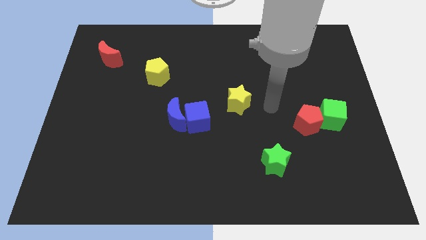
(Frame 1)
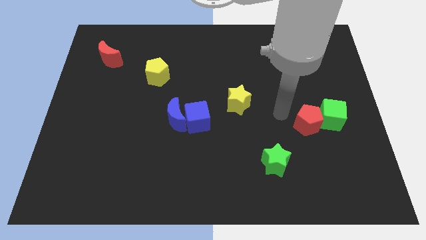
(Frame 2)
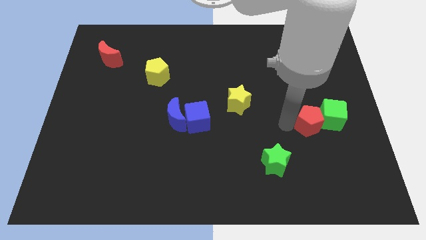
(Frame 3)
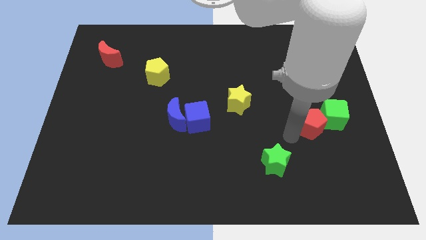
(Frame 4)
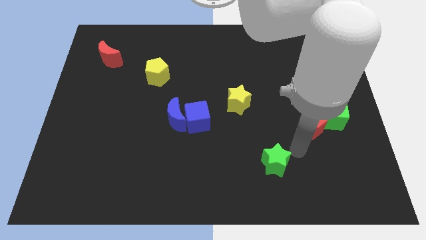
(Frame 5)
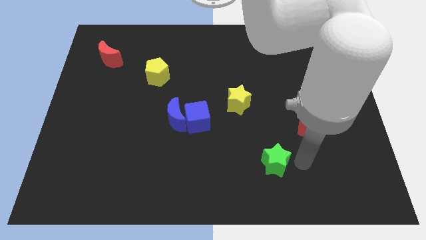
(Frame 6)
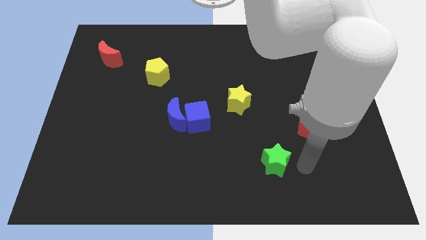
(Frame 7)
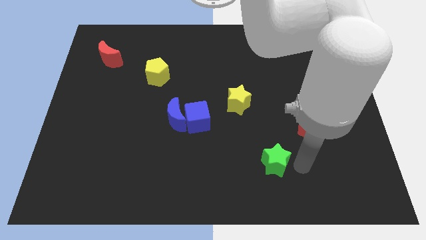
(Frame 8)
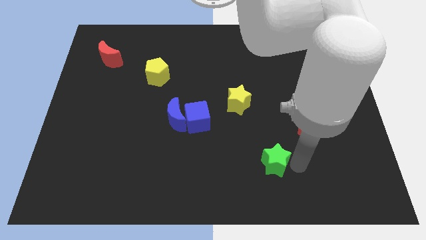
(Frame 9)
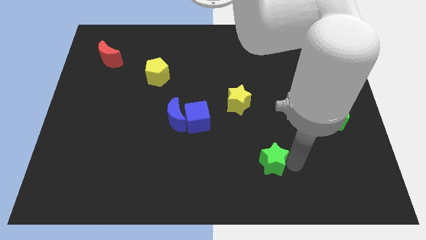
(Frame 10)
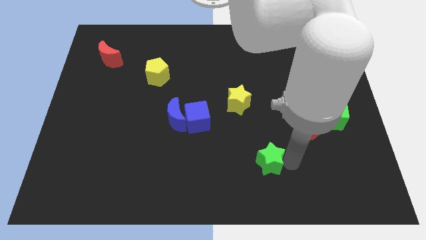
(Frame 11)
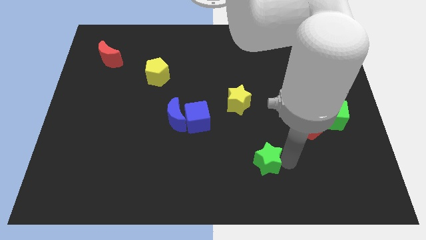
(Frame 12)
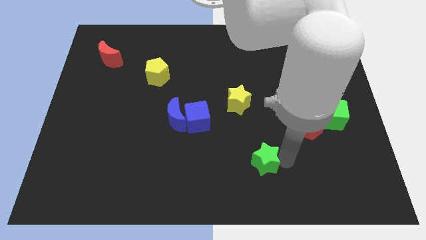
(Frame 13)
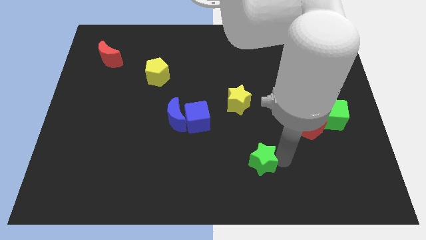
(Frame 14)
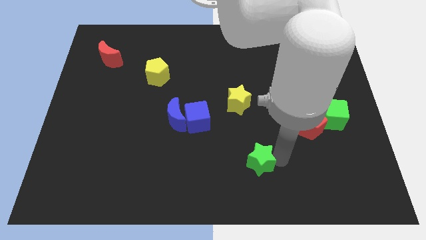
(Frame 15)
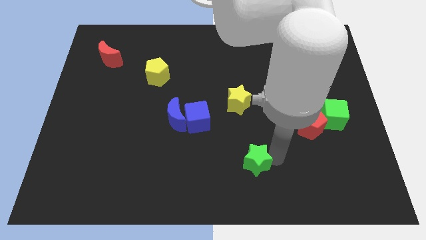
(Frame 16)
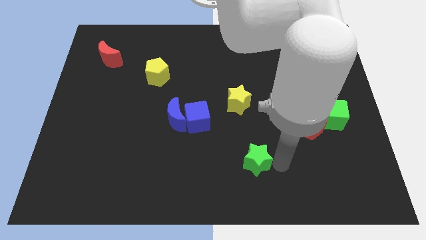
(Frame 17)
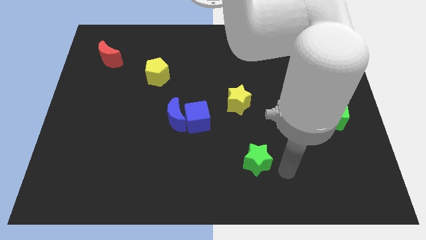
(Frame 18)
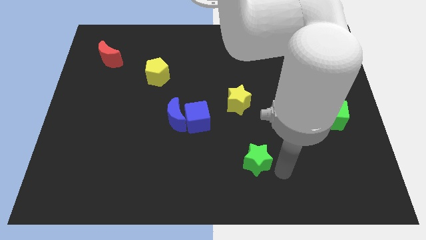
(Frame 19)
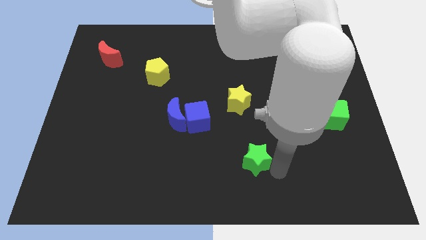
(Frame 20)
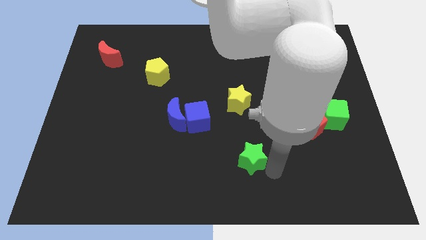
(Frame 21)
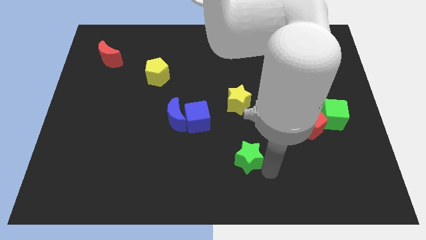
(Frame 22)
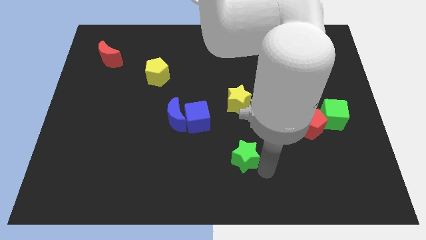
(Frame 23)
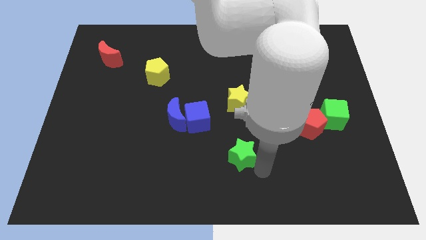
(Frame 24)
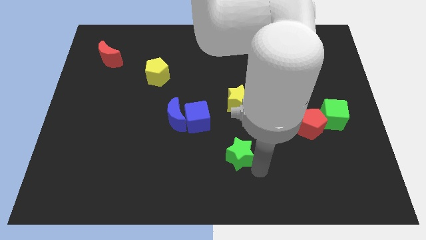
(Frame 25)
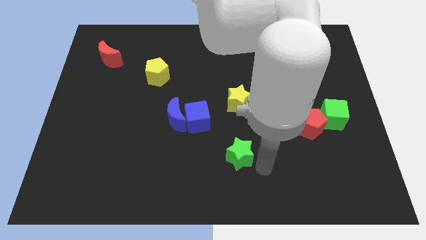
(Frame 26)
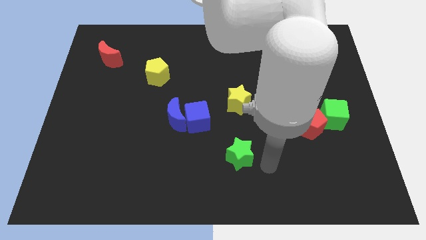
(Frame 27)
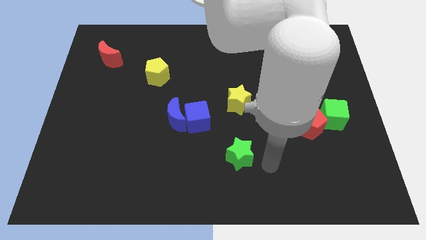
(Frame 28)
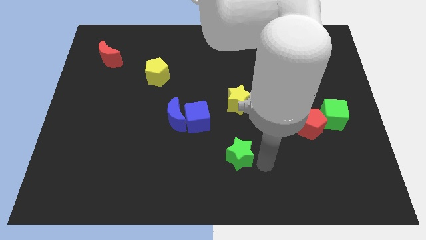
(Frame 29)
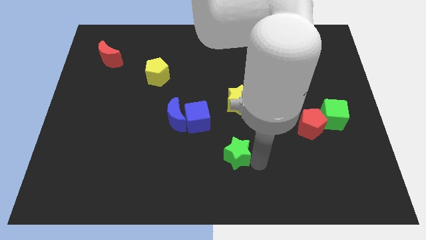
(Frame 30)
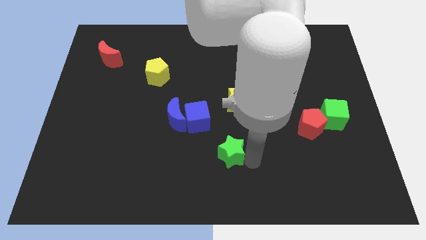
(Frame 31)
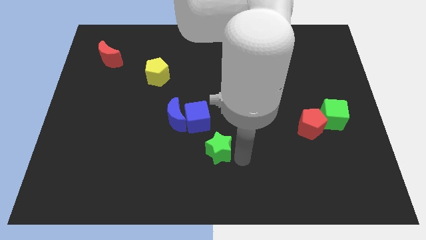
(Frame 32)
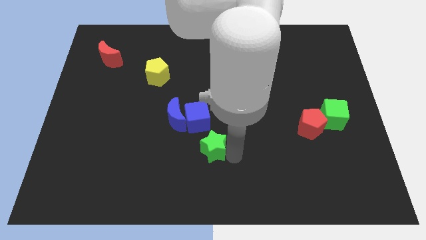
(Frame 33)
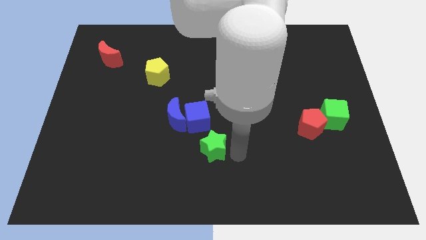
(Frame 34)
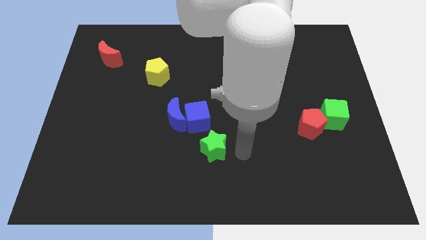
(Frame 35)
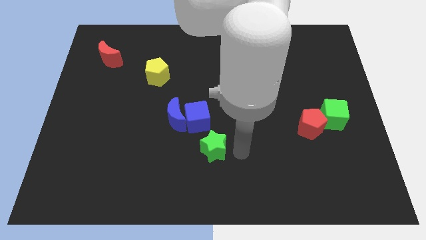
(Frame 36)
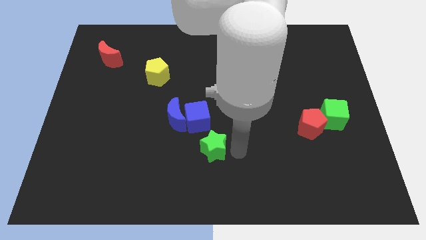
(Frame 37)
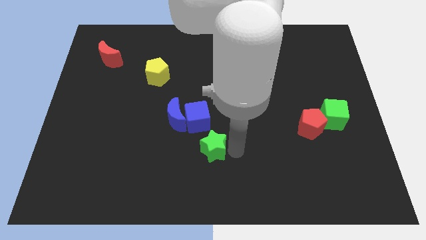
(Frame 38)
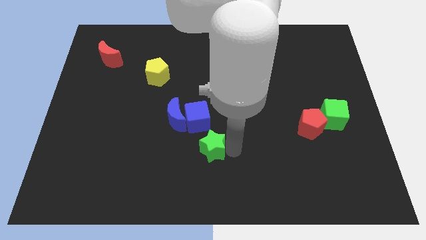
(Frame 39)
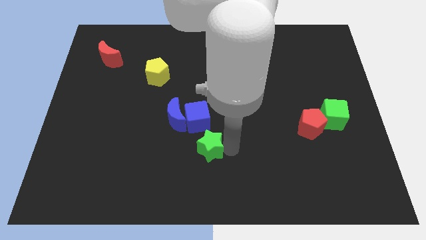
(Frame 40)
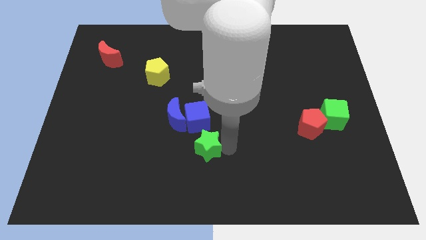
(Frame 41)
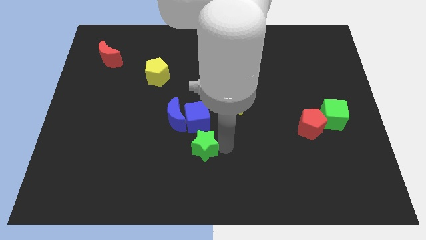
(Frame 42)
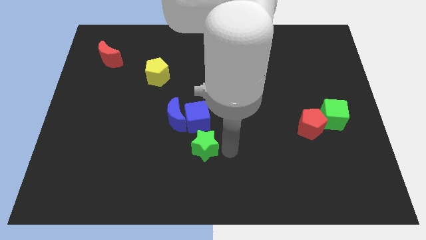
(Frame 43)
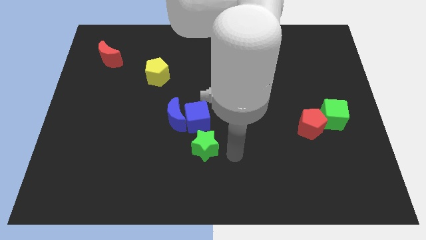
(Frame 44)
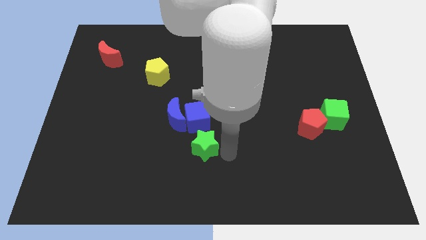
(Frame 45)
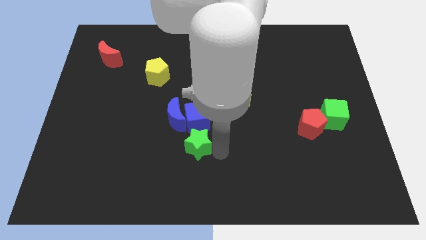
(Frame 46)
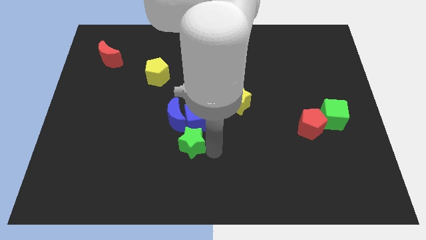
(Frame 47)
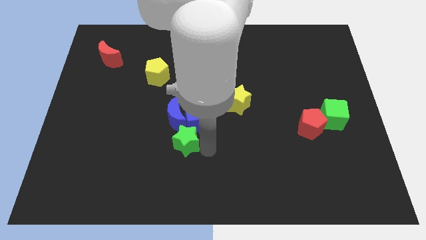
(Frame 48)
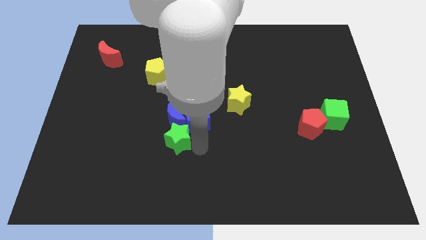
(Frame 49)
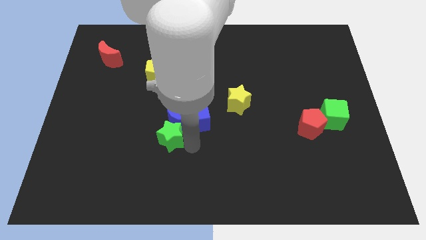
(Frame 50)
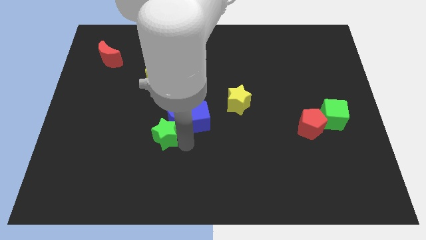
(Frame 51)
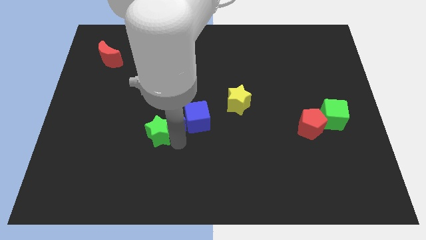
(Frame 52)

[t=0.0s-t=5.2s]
move the green star to the left of the blue moon

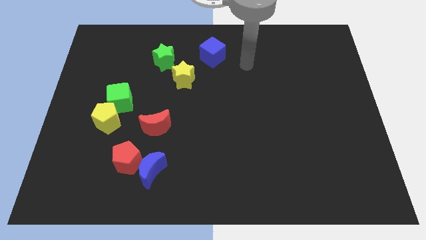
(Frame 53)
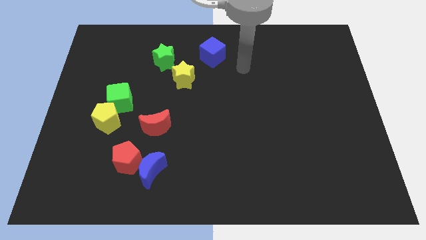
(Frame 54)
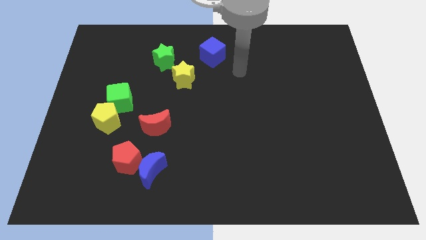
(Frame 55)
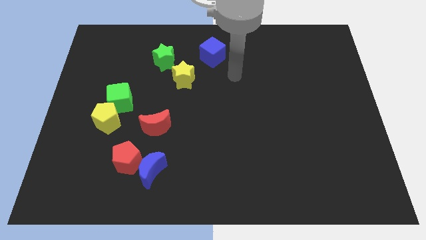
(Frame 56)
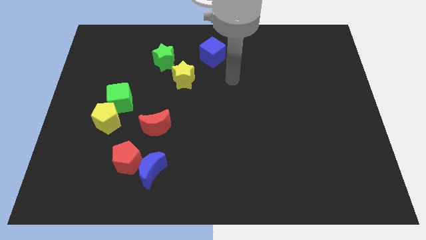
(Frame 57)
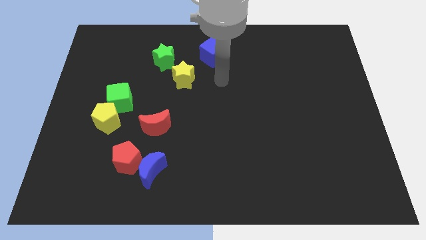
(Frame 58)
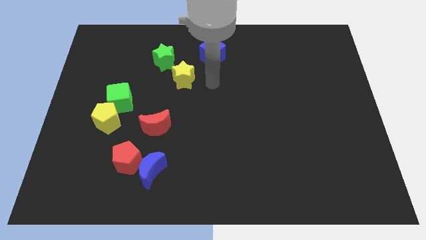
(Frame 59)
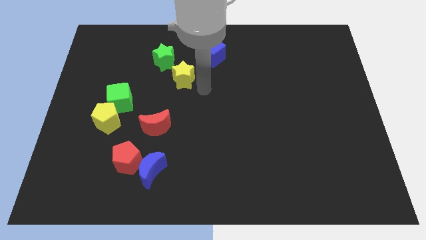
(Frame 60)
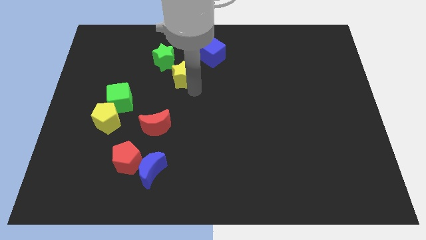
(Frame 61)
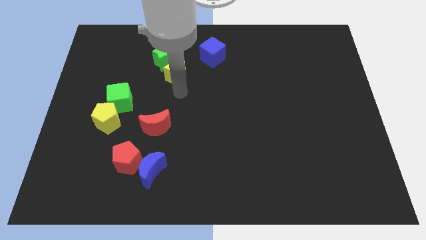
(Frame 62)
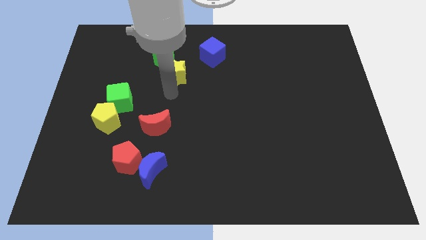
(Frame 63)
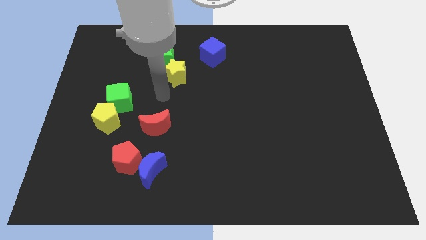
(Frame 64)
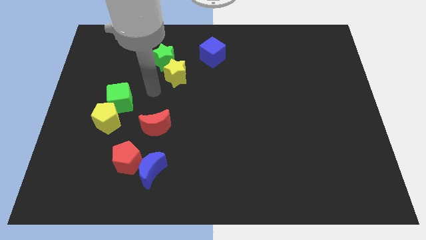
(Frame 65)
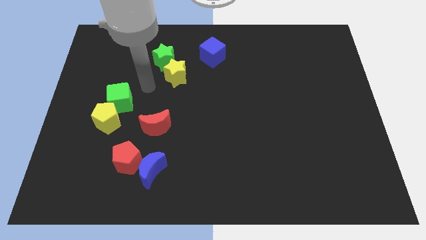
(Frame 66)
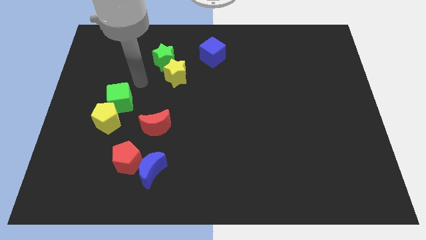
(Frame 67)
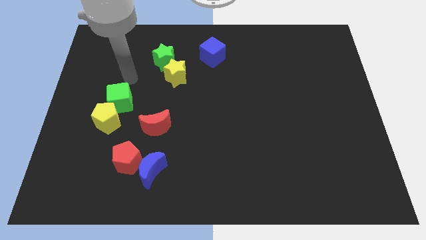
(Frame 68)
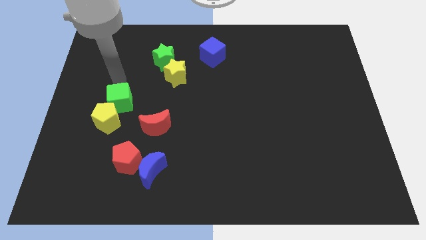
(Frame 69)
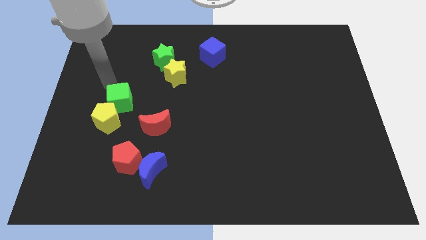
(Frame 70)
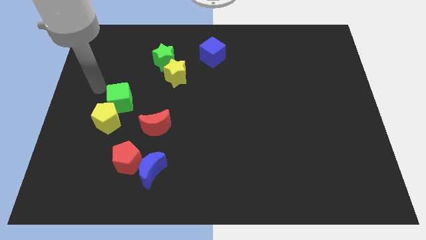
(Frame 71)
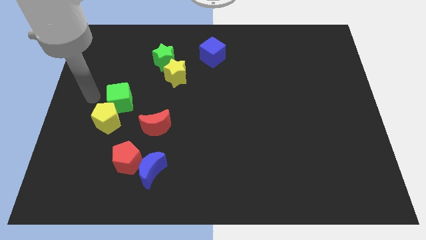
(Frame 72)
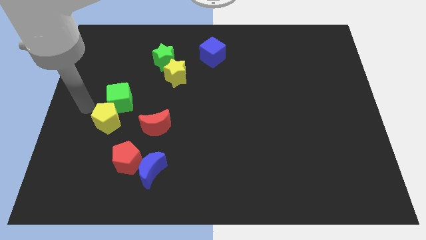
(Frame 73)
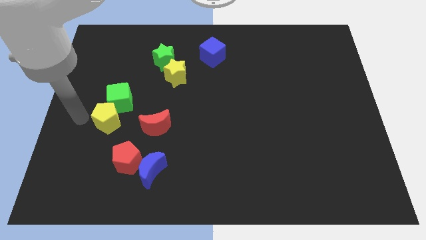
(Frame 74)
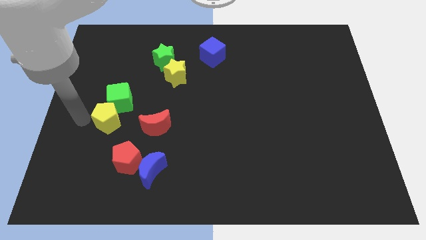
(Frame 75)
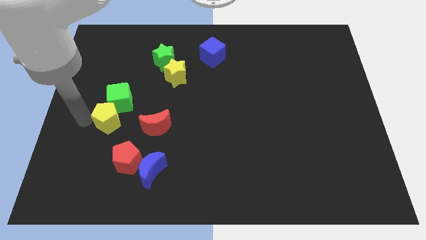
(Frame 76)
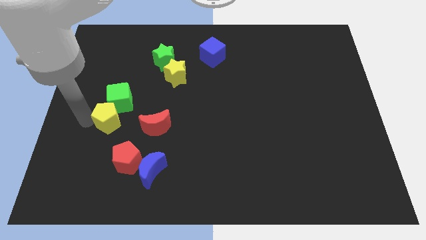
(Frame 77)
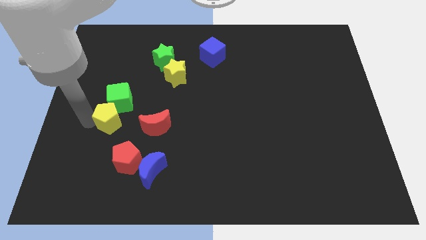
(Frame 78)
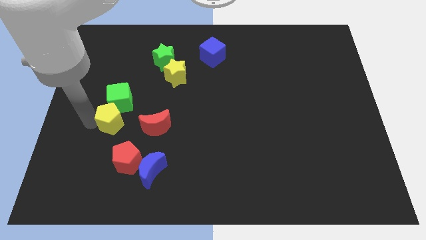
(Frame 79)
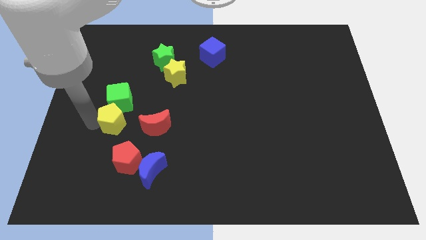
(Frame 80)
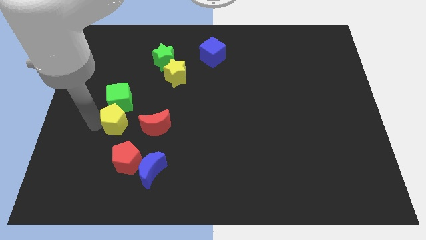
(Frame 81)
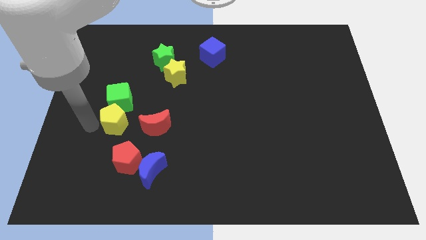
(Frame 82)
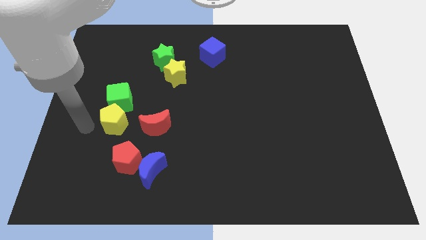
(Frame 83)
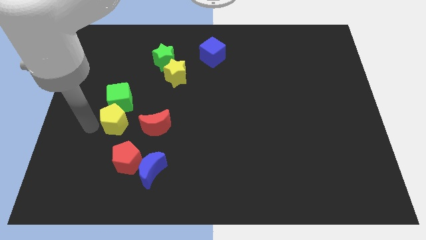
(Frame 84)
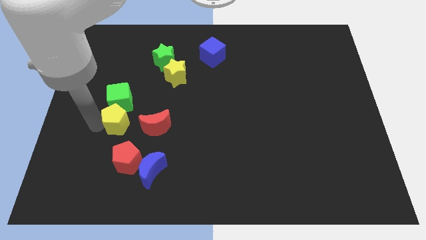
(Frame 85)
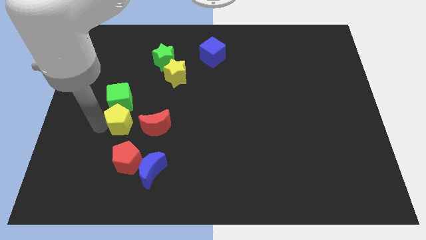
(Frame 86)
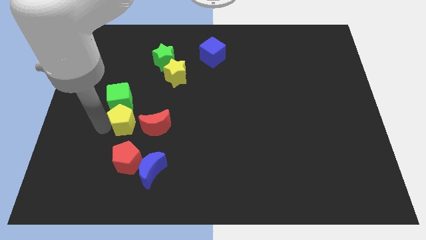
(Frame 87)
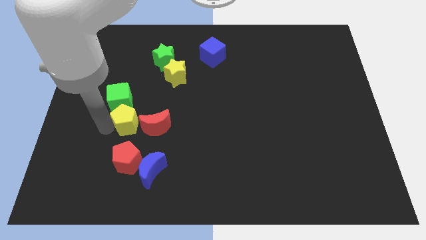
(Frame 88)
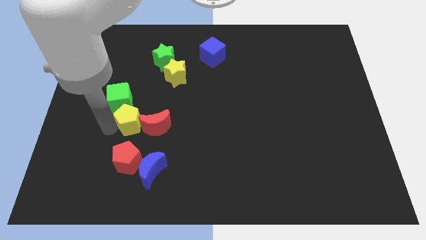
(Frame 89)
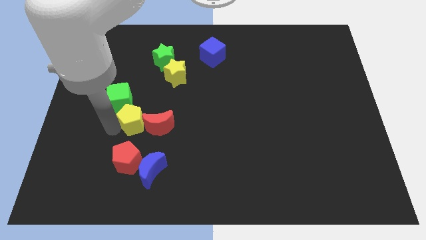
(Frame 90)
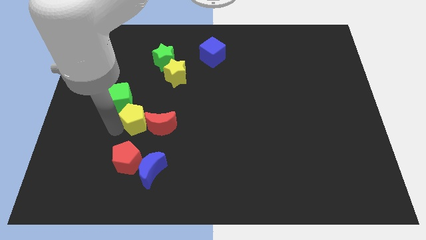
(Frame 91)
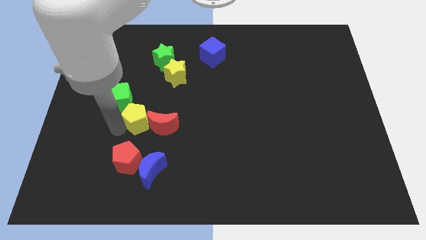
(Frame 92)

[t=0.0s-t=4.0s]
push the yellow pentagon above the blue moon
